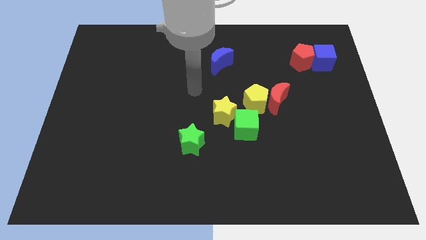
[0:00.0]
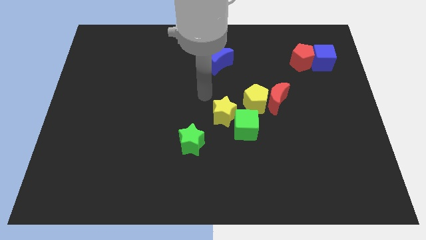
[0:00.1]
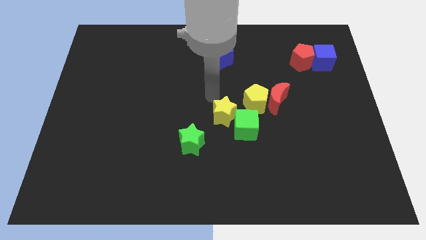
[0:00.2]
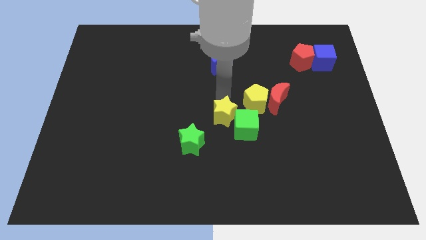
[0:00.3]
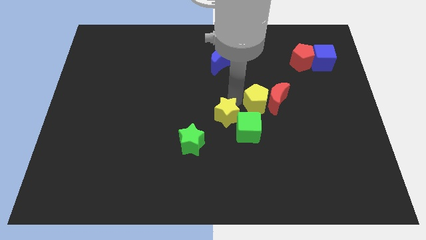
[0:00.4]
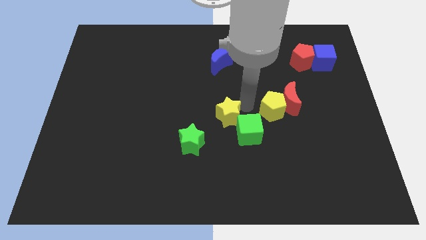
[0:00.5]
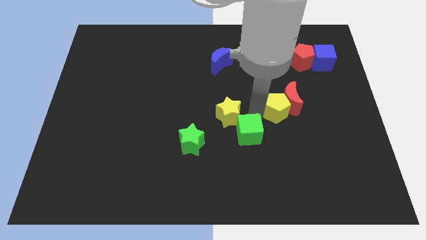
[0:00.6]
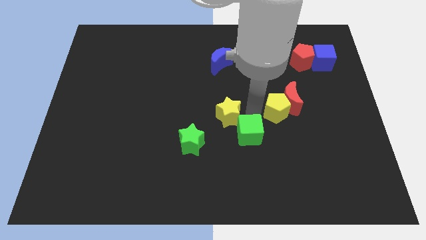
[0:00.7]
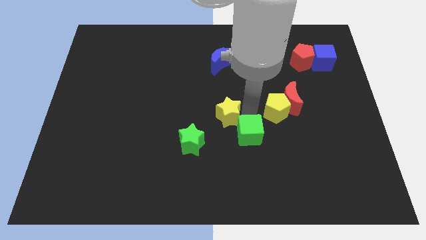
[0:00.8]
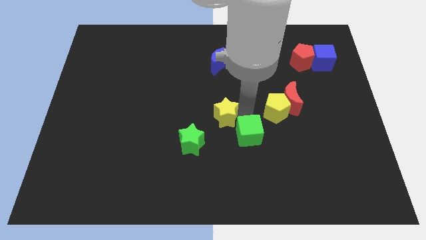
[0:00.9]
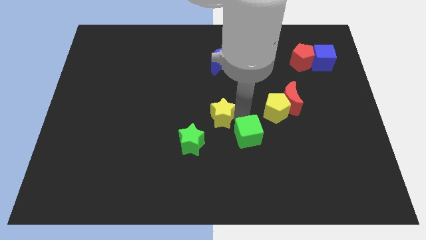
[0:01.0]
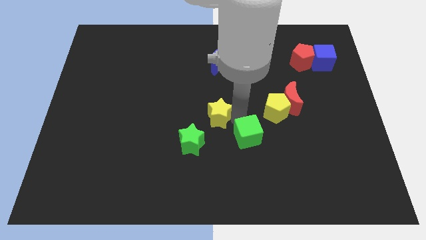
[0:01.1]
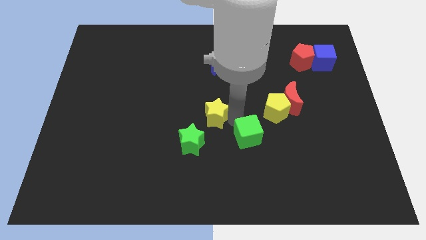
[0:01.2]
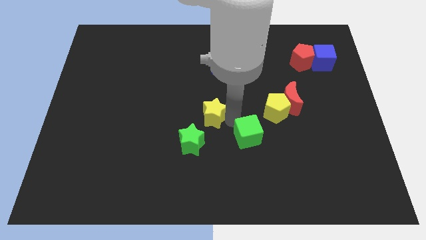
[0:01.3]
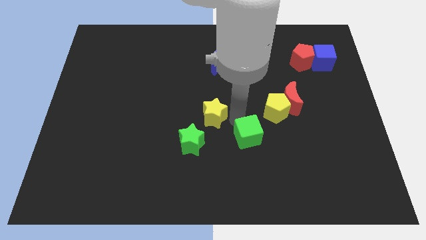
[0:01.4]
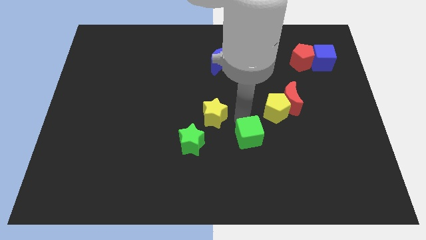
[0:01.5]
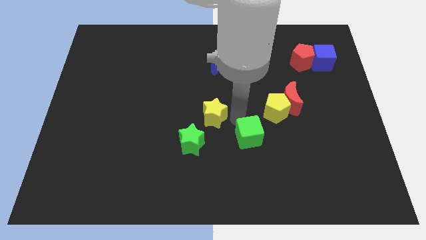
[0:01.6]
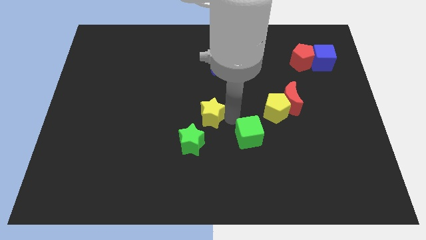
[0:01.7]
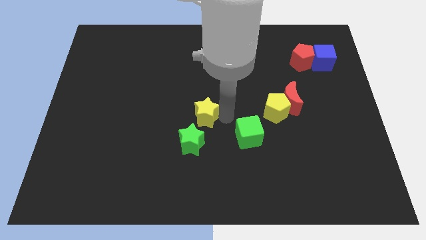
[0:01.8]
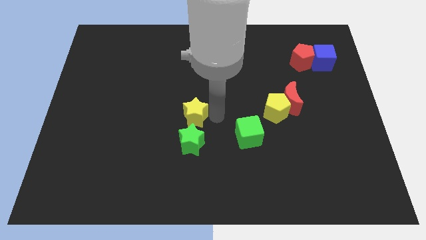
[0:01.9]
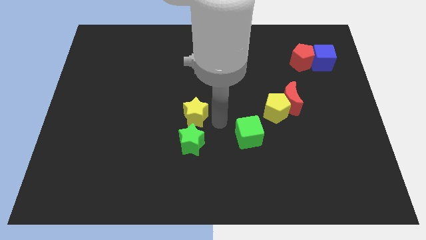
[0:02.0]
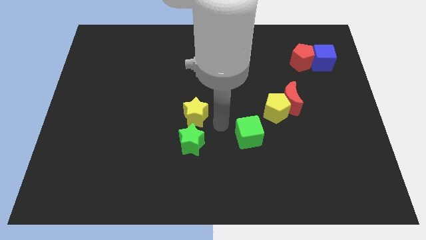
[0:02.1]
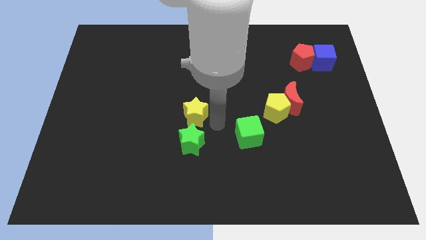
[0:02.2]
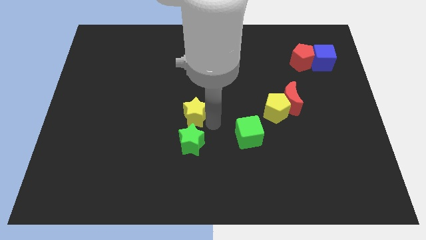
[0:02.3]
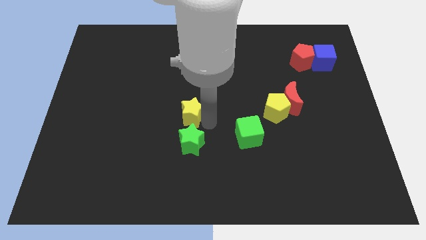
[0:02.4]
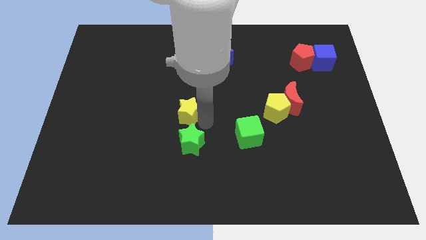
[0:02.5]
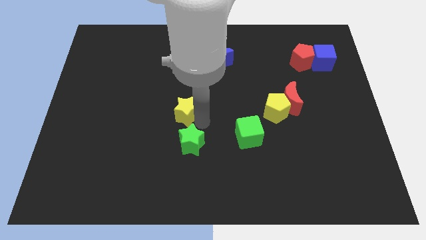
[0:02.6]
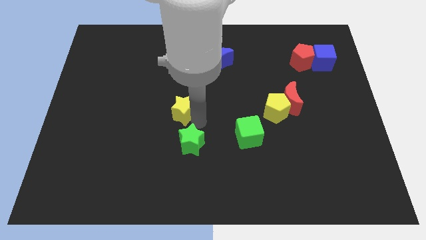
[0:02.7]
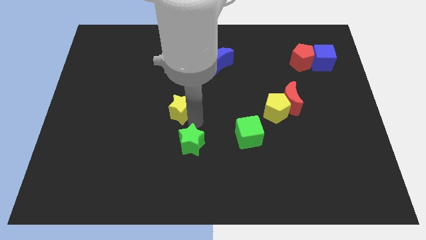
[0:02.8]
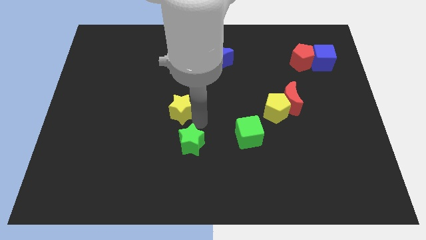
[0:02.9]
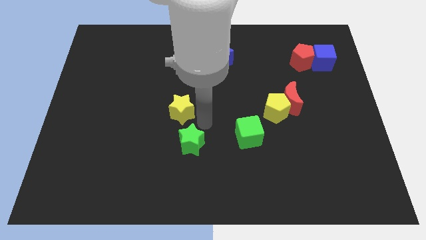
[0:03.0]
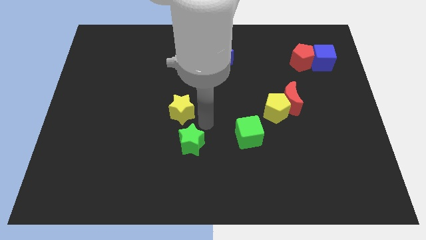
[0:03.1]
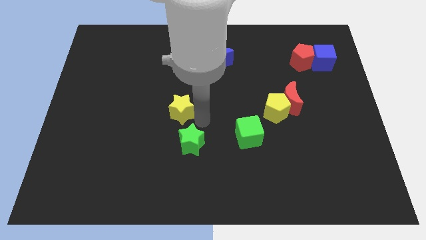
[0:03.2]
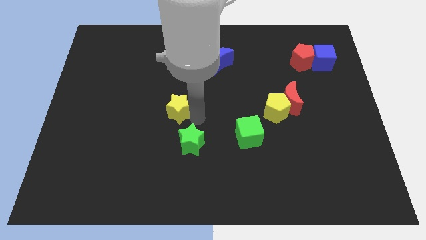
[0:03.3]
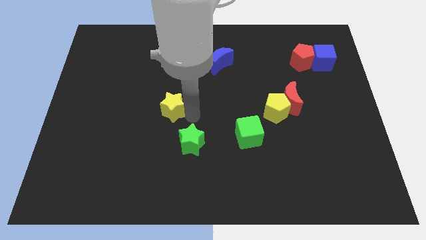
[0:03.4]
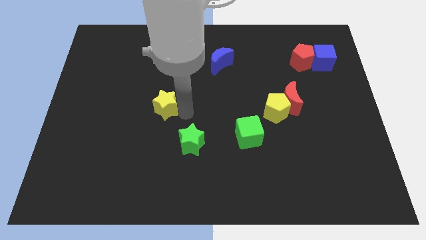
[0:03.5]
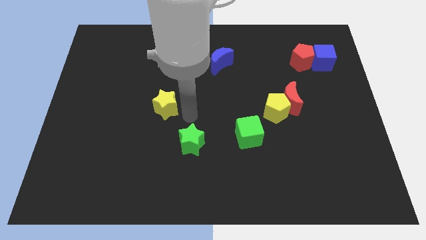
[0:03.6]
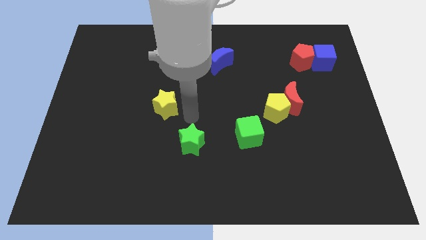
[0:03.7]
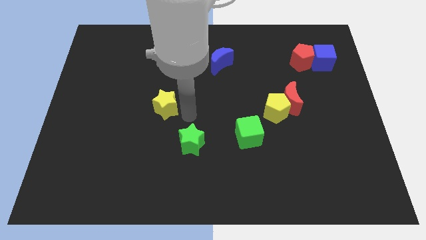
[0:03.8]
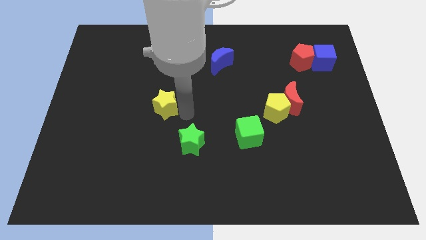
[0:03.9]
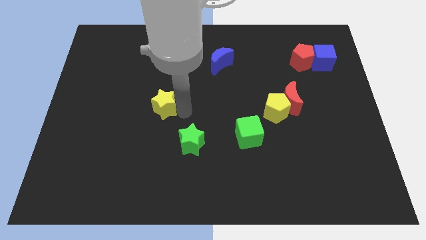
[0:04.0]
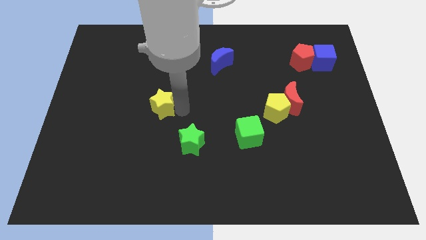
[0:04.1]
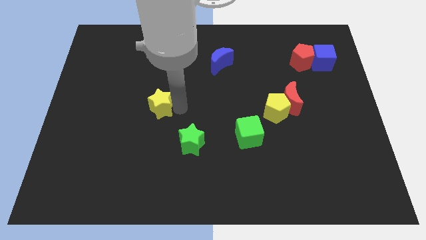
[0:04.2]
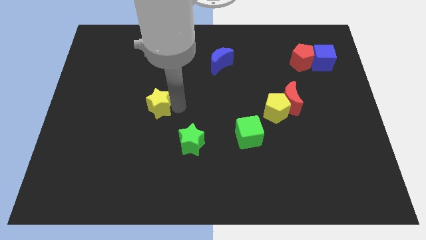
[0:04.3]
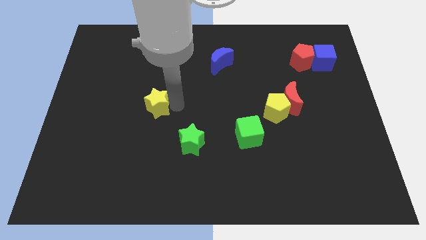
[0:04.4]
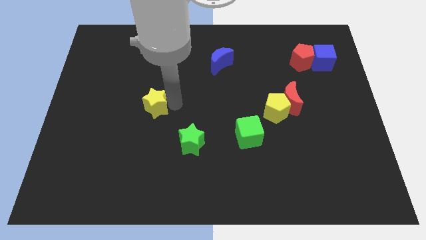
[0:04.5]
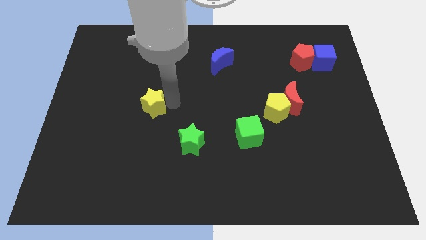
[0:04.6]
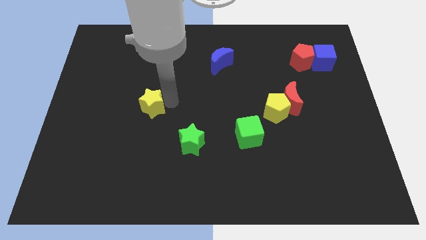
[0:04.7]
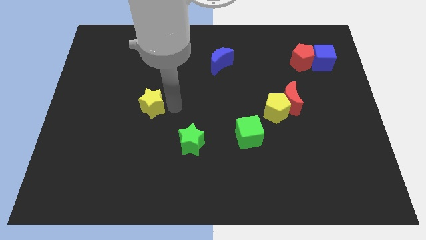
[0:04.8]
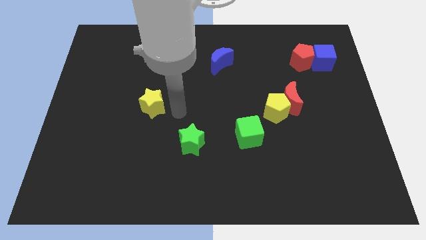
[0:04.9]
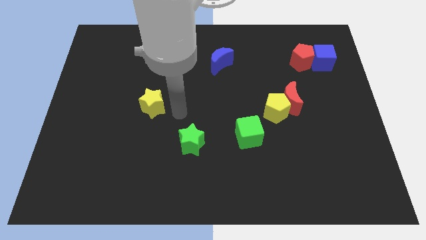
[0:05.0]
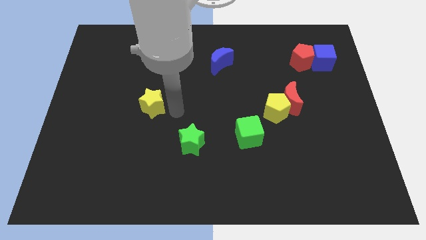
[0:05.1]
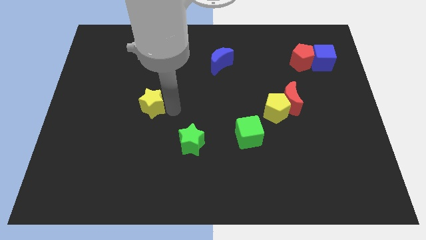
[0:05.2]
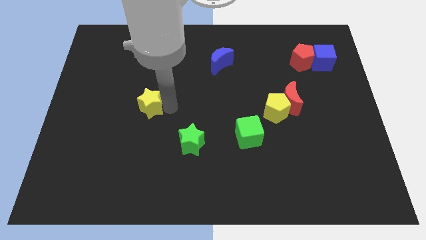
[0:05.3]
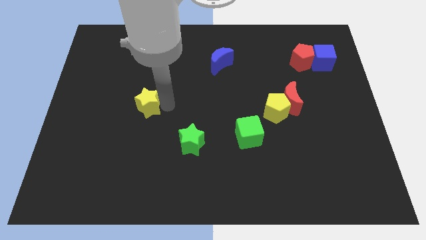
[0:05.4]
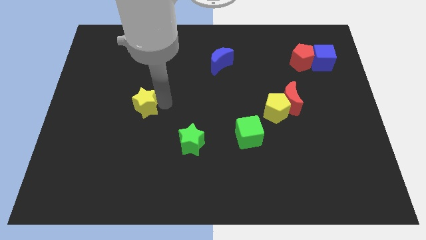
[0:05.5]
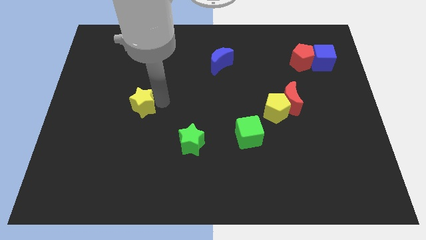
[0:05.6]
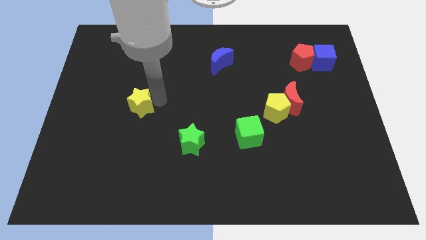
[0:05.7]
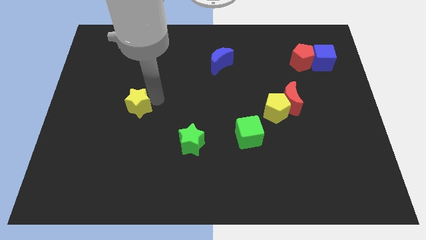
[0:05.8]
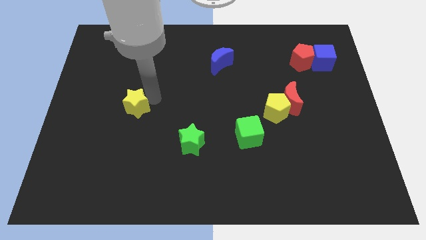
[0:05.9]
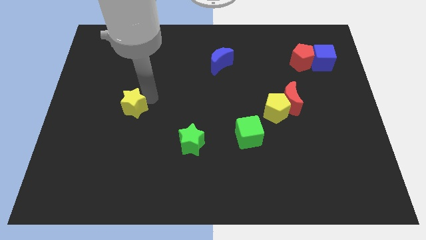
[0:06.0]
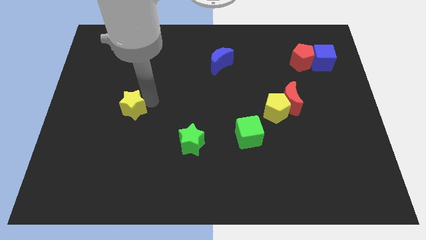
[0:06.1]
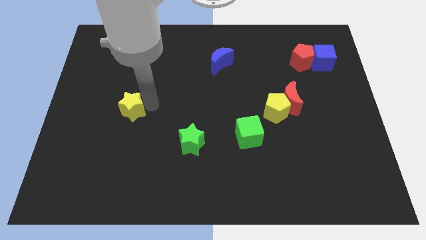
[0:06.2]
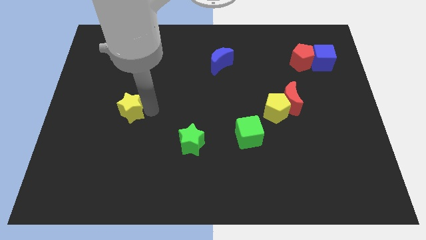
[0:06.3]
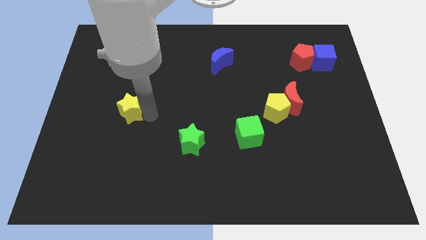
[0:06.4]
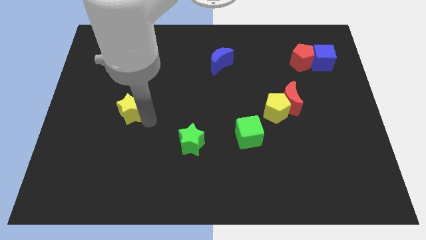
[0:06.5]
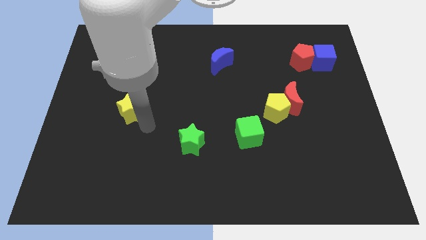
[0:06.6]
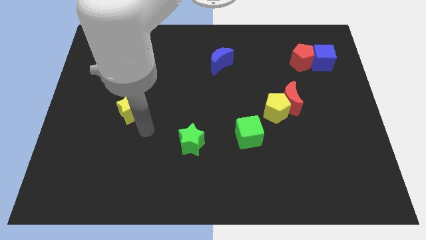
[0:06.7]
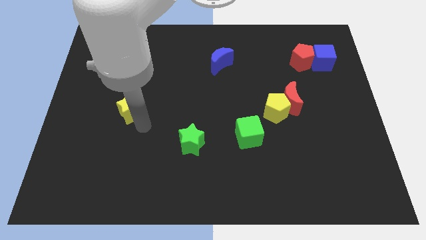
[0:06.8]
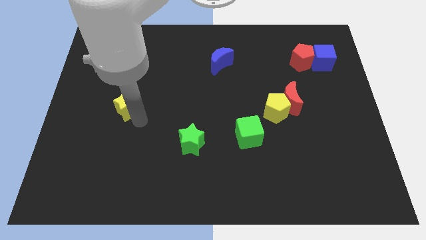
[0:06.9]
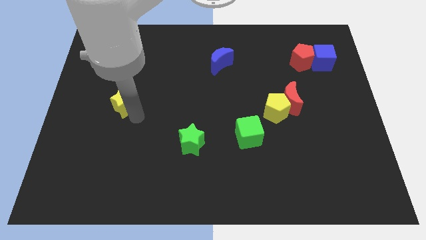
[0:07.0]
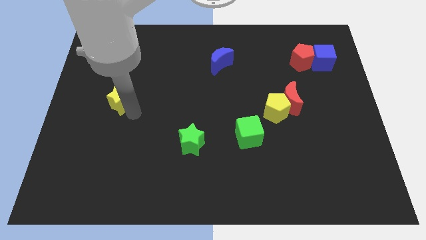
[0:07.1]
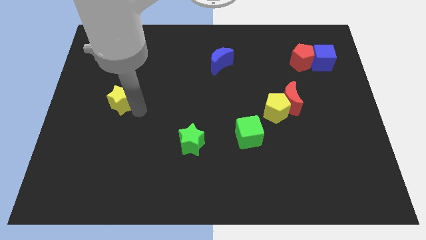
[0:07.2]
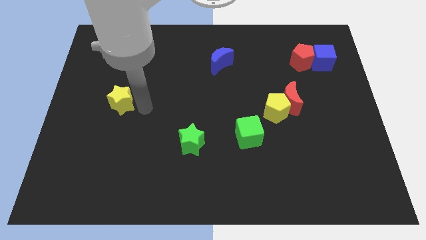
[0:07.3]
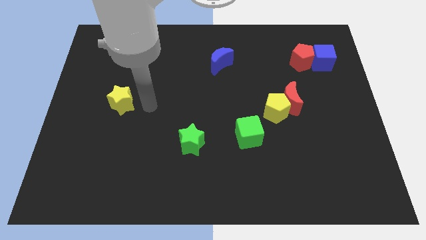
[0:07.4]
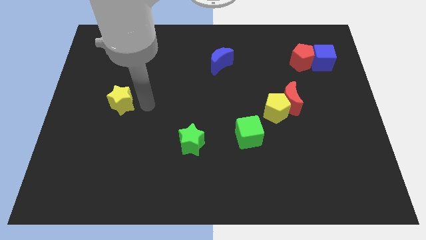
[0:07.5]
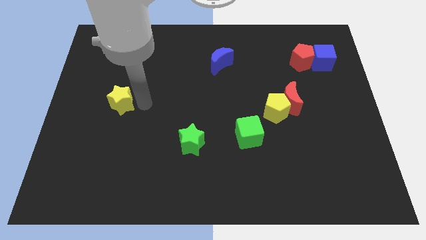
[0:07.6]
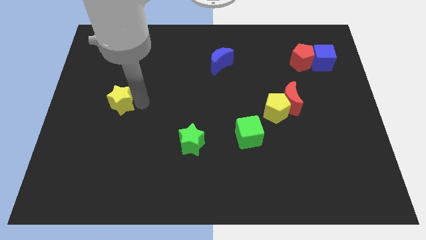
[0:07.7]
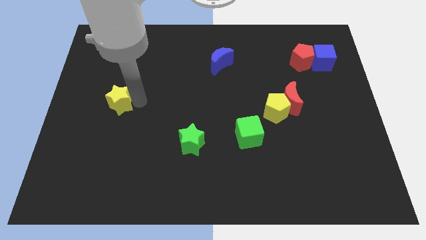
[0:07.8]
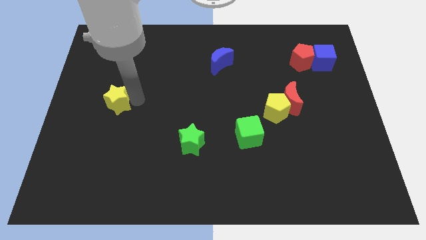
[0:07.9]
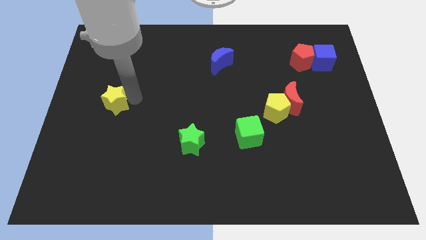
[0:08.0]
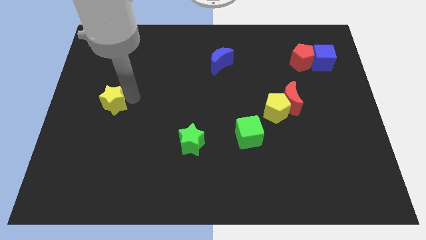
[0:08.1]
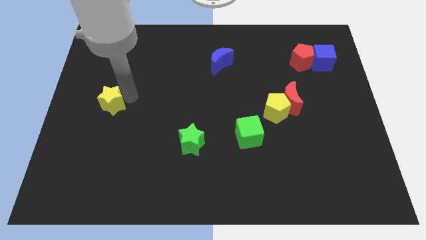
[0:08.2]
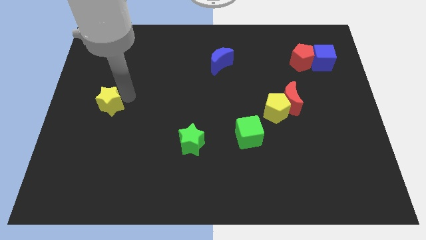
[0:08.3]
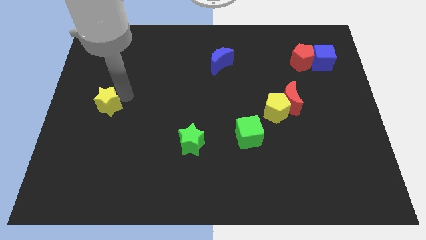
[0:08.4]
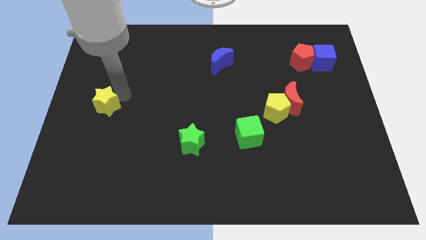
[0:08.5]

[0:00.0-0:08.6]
slide the yellow star to the left side of the board
